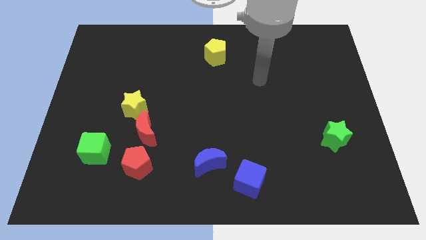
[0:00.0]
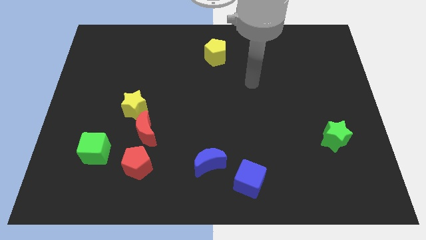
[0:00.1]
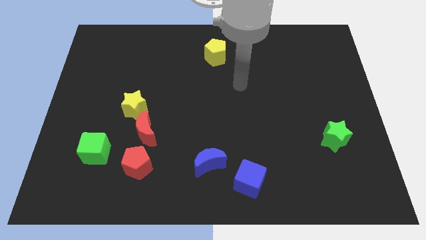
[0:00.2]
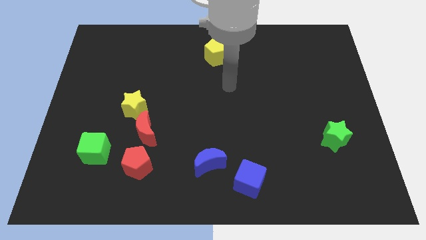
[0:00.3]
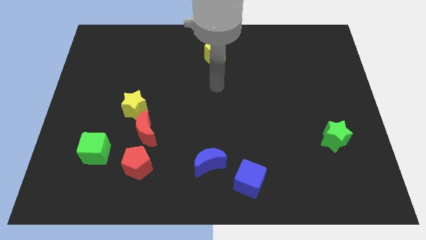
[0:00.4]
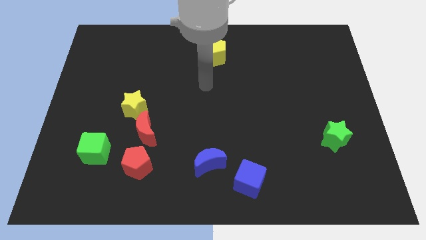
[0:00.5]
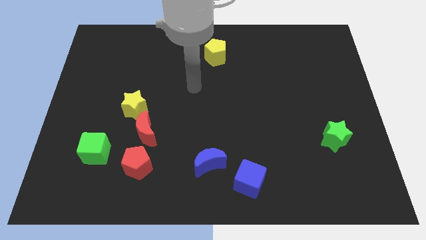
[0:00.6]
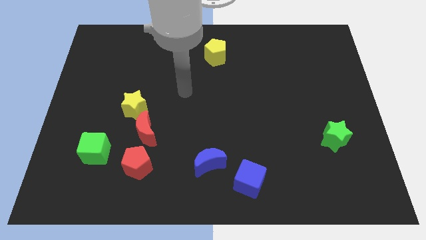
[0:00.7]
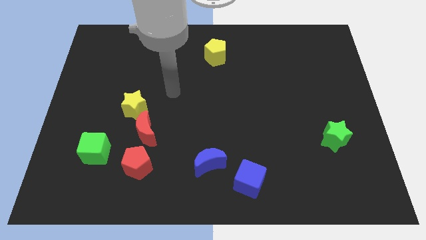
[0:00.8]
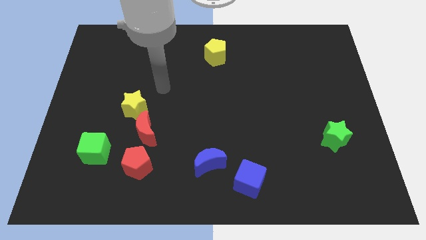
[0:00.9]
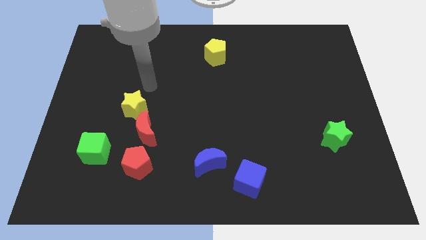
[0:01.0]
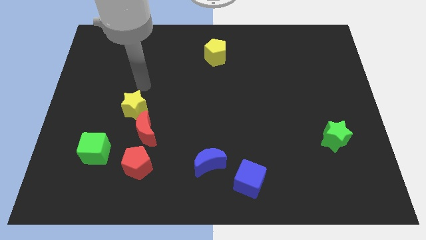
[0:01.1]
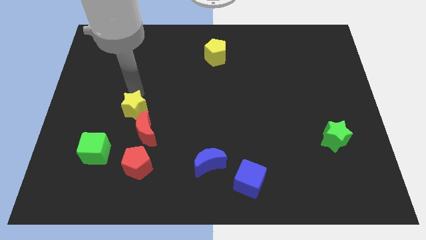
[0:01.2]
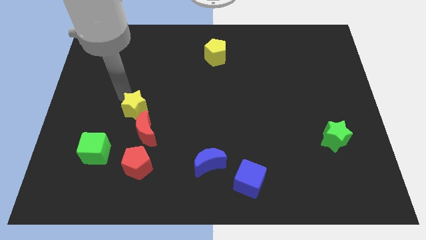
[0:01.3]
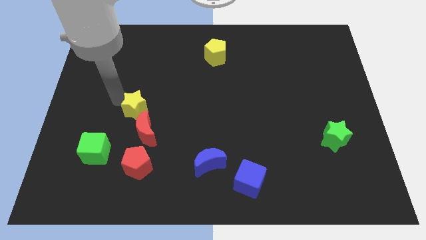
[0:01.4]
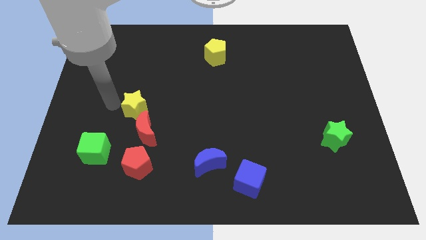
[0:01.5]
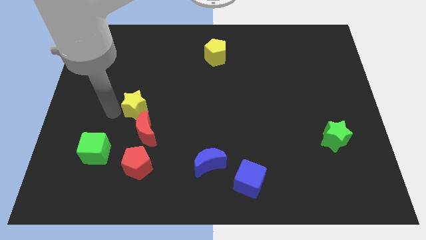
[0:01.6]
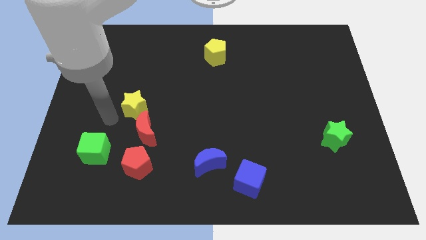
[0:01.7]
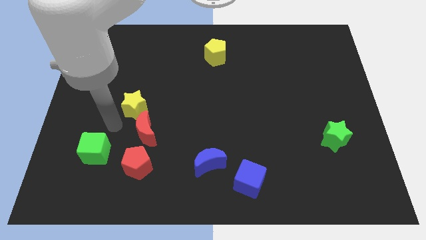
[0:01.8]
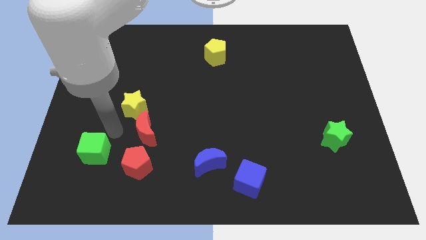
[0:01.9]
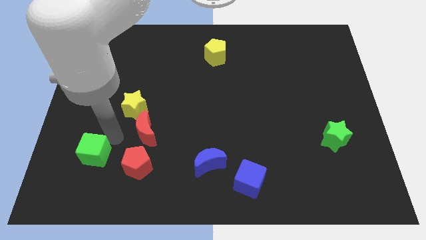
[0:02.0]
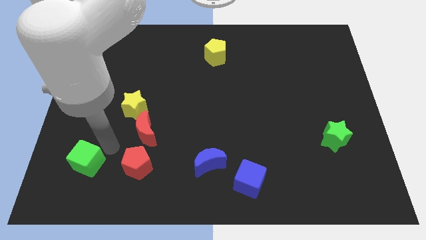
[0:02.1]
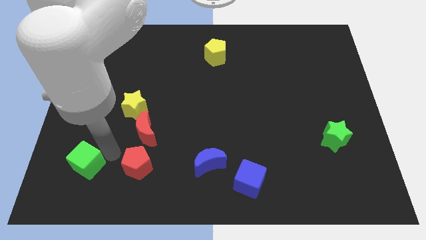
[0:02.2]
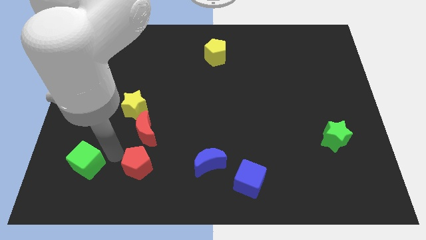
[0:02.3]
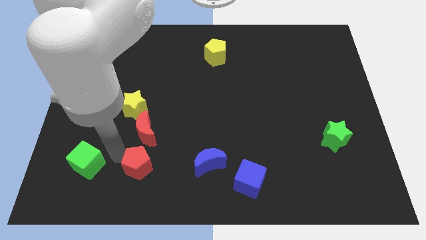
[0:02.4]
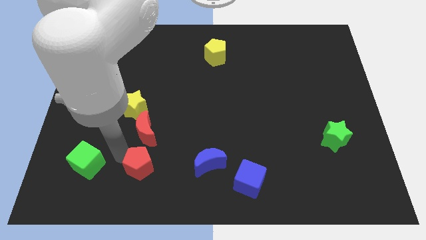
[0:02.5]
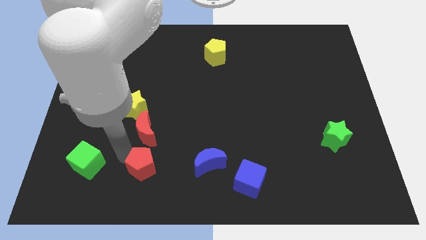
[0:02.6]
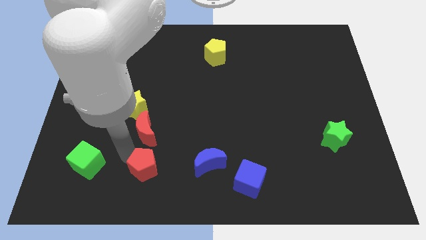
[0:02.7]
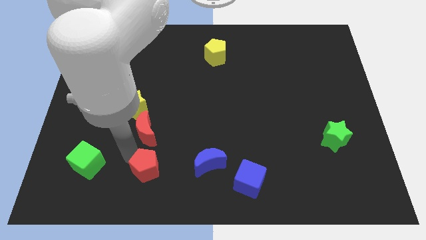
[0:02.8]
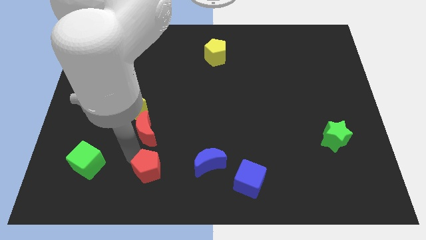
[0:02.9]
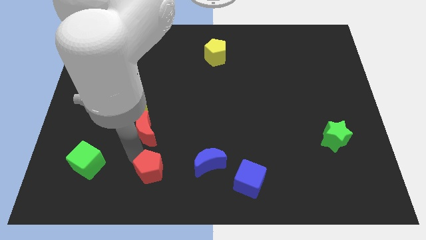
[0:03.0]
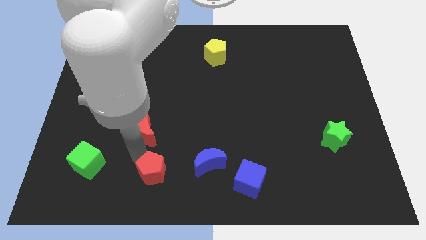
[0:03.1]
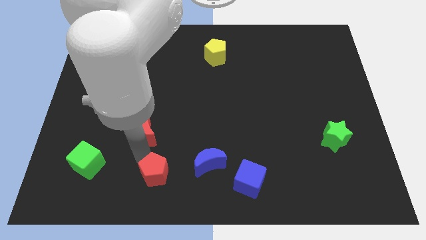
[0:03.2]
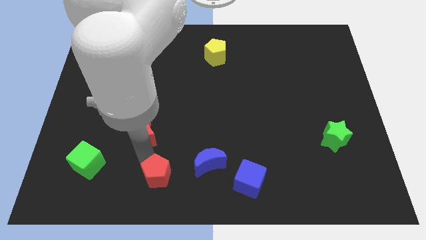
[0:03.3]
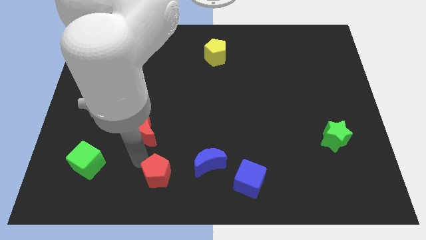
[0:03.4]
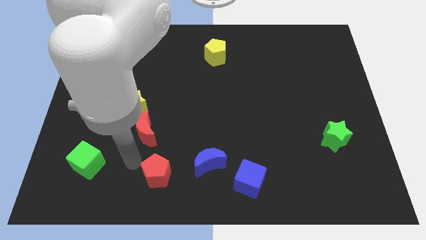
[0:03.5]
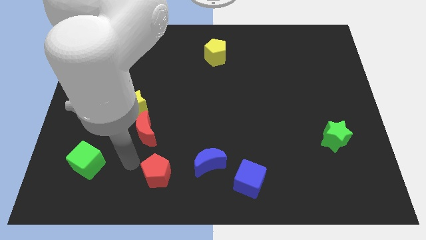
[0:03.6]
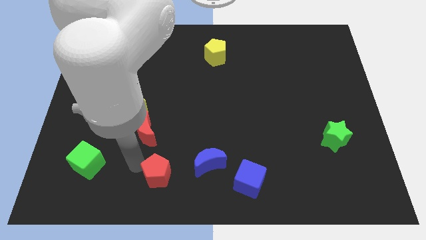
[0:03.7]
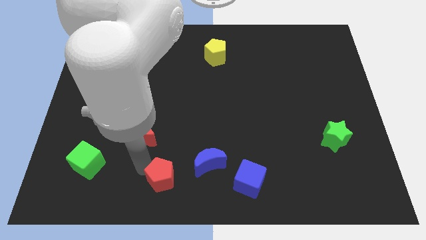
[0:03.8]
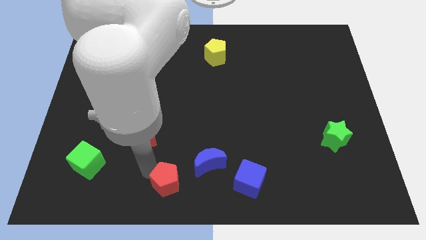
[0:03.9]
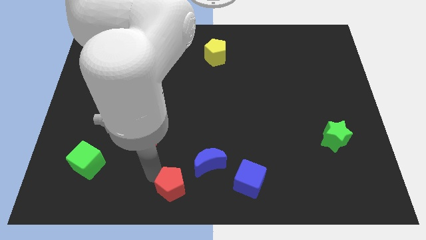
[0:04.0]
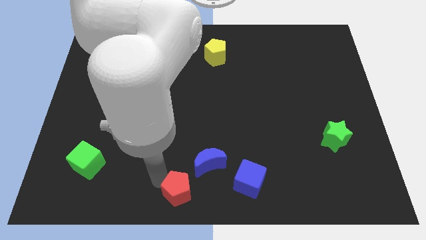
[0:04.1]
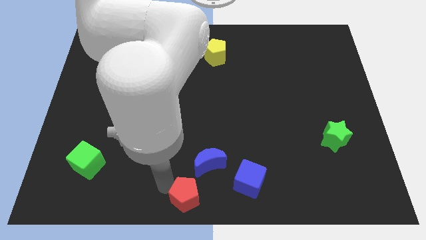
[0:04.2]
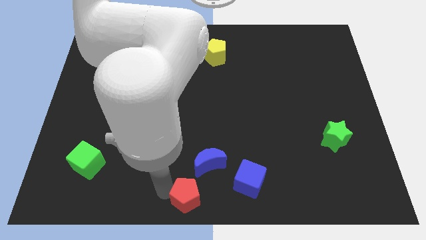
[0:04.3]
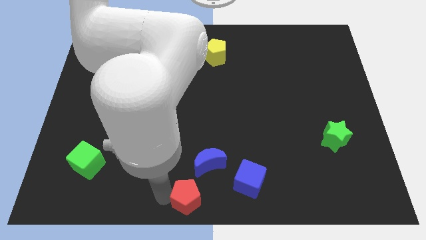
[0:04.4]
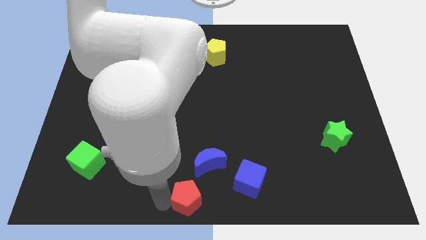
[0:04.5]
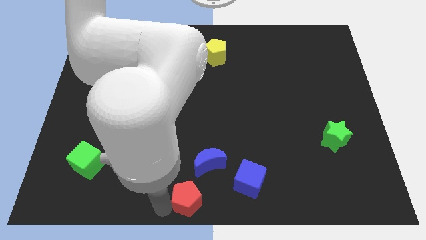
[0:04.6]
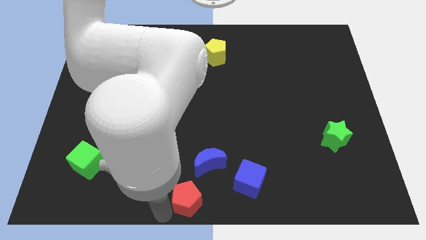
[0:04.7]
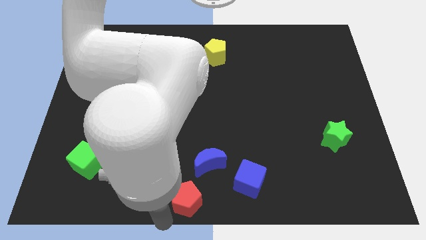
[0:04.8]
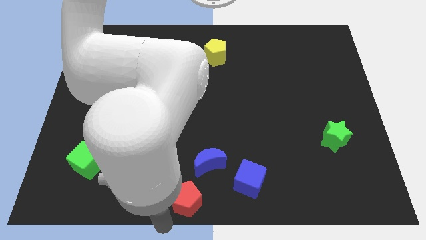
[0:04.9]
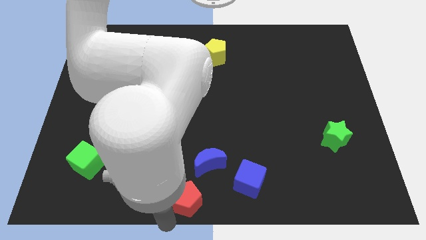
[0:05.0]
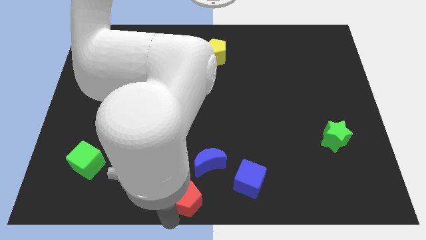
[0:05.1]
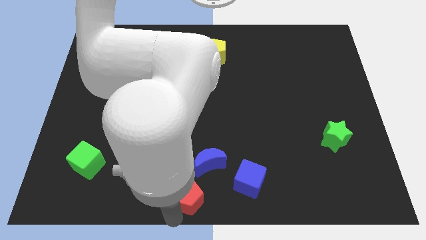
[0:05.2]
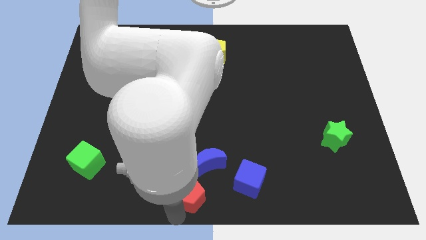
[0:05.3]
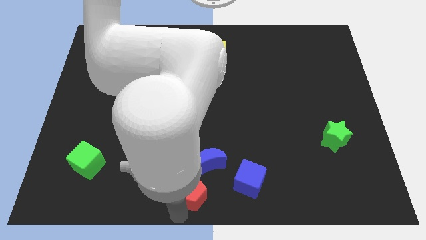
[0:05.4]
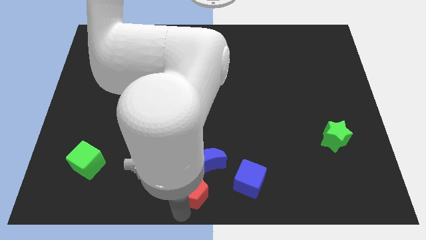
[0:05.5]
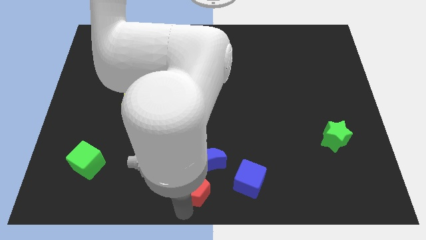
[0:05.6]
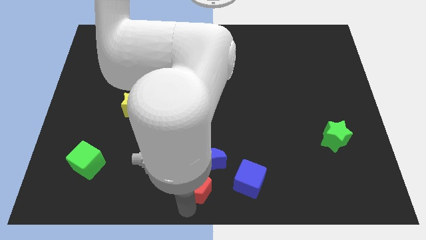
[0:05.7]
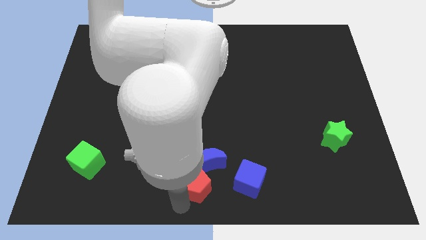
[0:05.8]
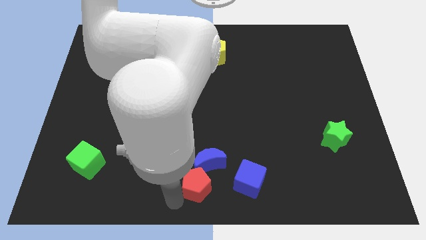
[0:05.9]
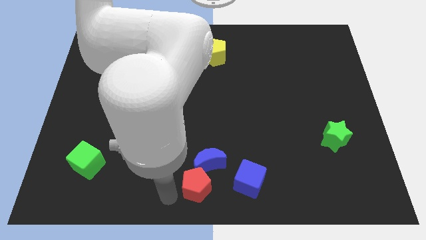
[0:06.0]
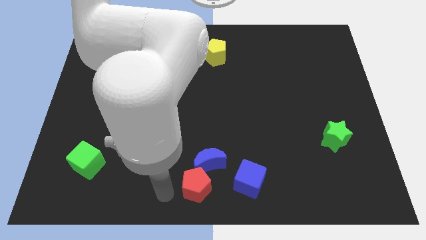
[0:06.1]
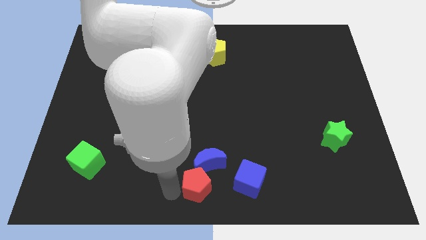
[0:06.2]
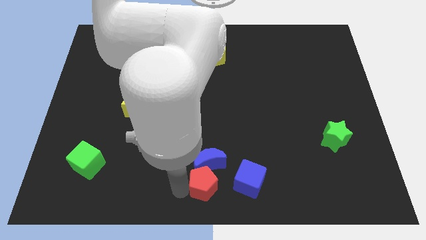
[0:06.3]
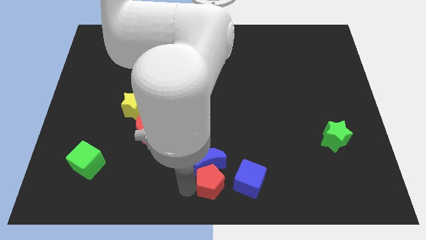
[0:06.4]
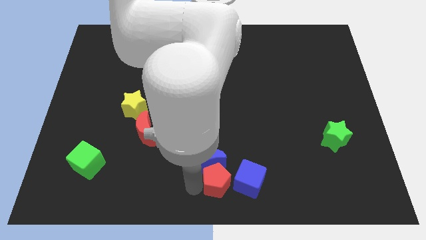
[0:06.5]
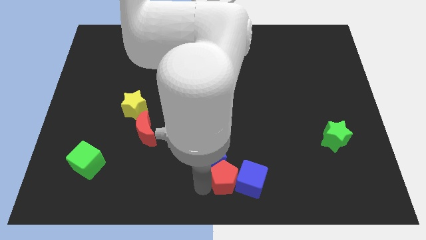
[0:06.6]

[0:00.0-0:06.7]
move the red pentagon to the right of the blue moon
